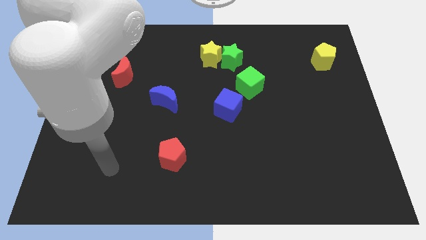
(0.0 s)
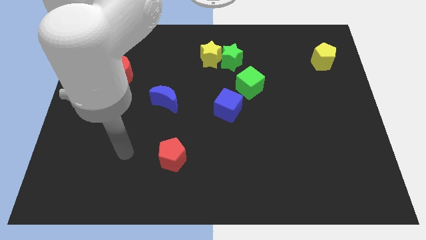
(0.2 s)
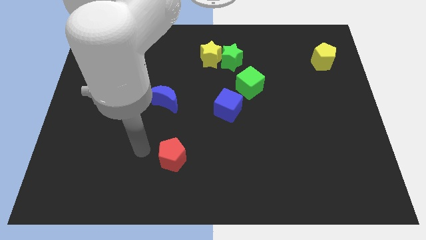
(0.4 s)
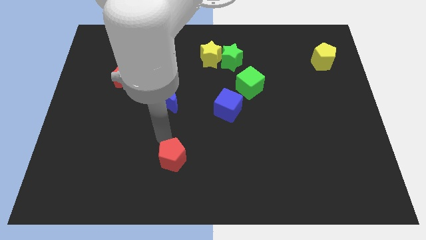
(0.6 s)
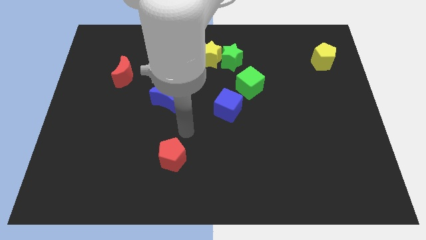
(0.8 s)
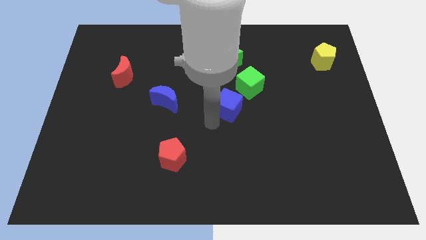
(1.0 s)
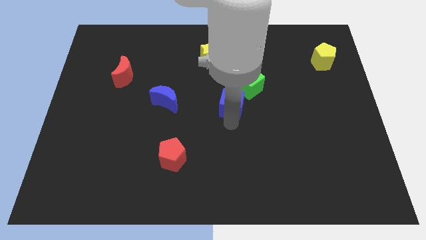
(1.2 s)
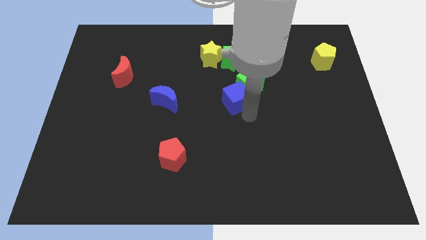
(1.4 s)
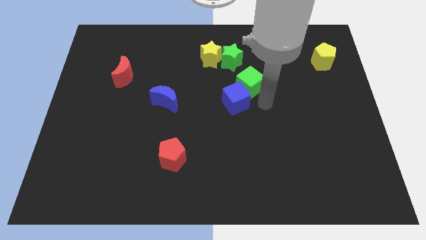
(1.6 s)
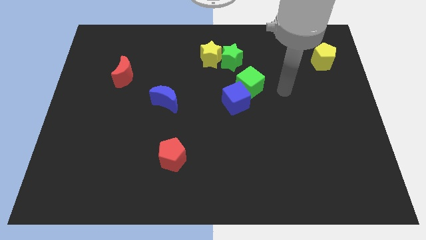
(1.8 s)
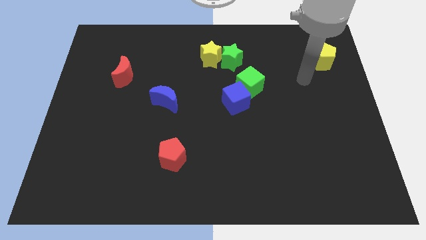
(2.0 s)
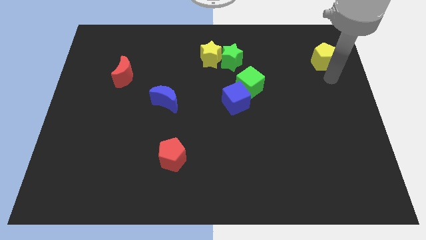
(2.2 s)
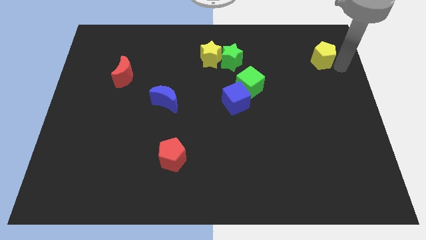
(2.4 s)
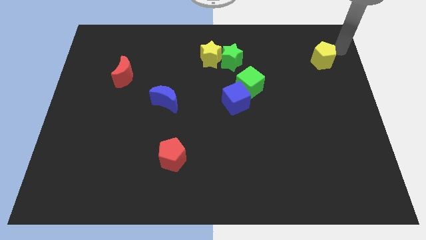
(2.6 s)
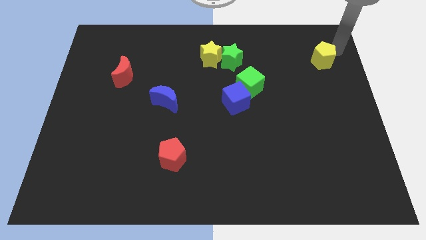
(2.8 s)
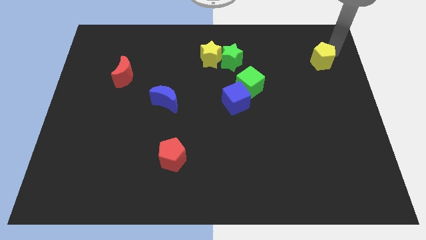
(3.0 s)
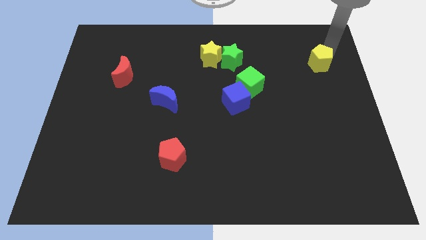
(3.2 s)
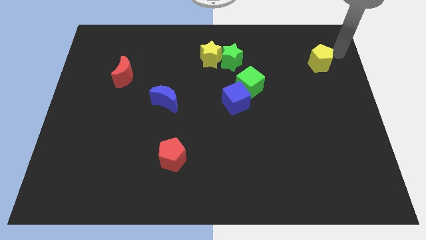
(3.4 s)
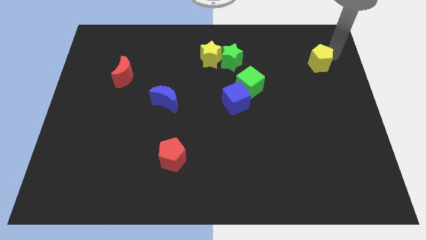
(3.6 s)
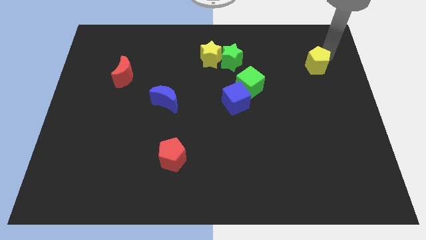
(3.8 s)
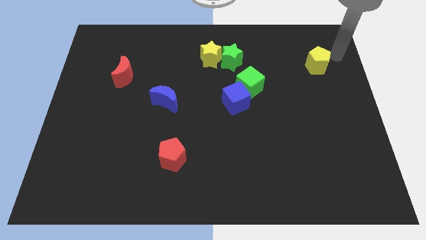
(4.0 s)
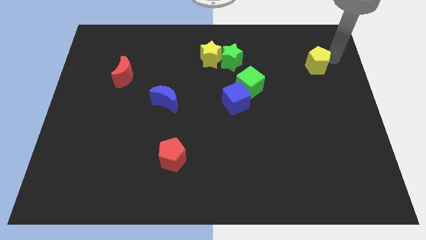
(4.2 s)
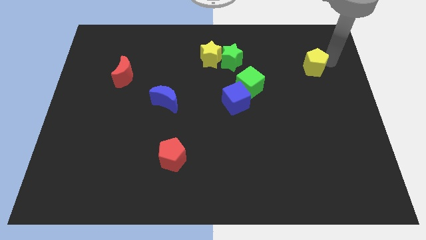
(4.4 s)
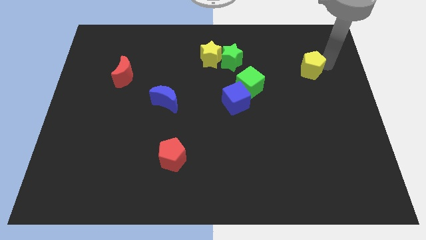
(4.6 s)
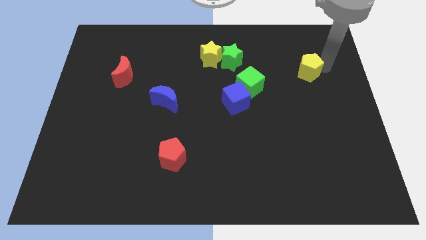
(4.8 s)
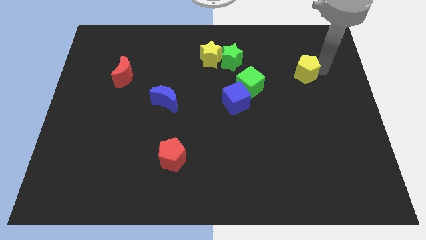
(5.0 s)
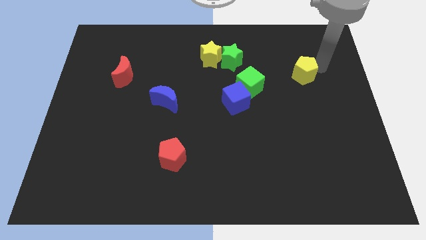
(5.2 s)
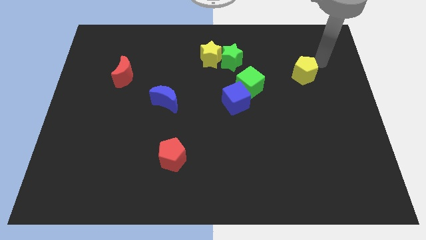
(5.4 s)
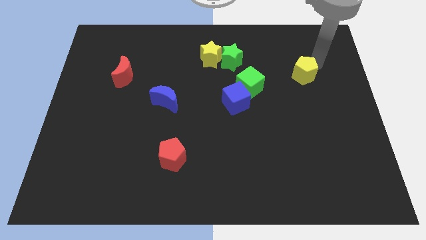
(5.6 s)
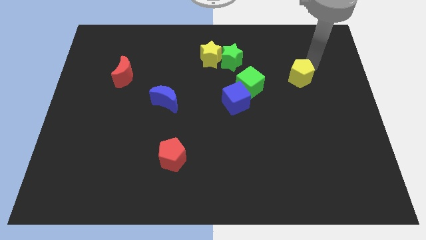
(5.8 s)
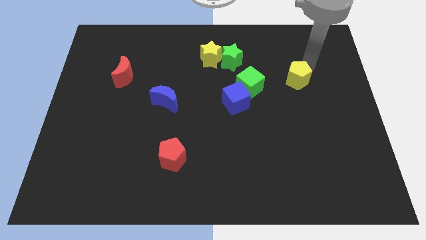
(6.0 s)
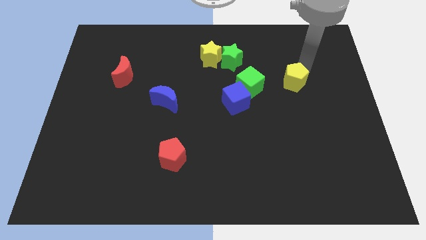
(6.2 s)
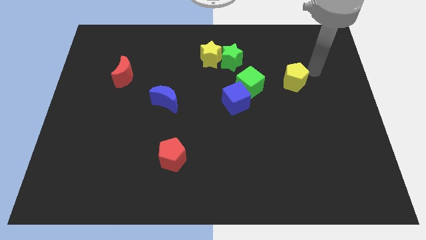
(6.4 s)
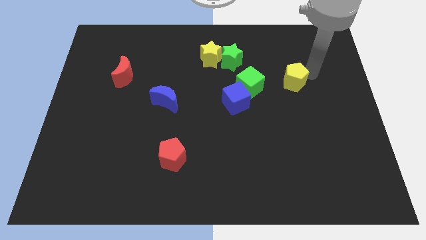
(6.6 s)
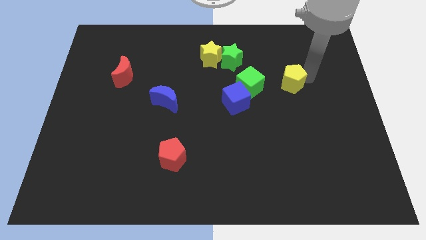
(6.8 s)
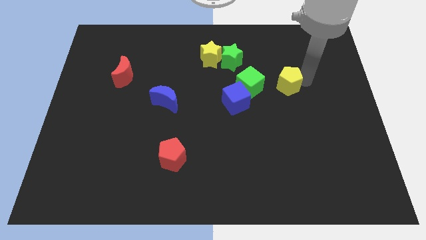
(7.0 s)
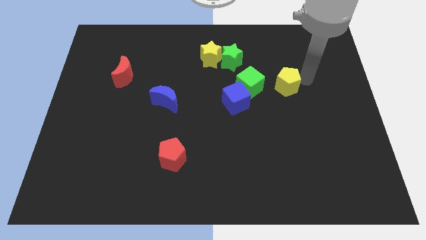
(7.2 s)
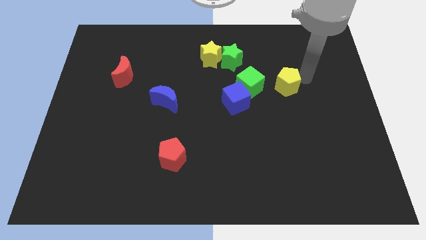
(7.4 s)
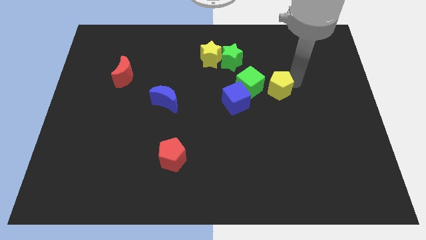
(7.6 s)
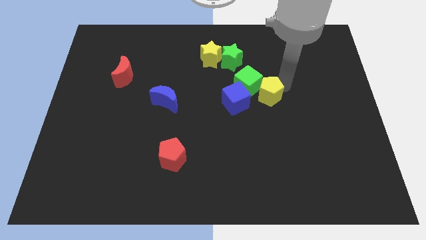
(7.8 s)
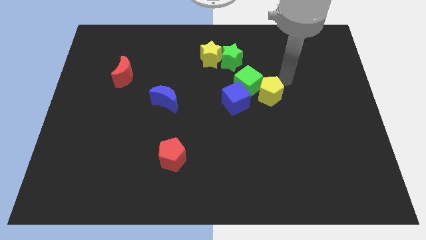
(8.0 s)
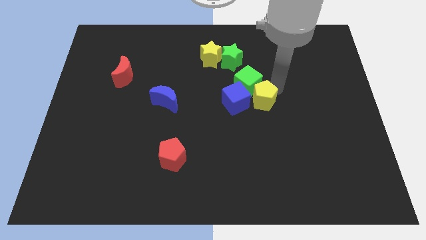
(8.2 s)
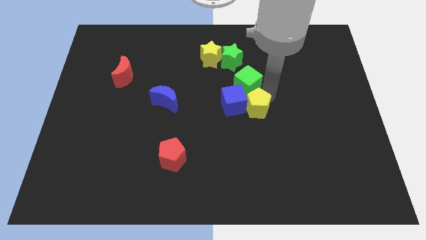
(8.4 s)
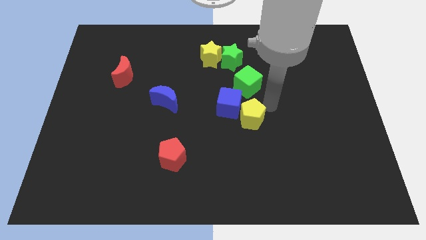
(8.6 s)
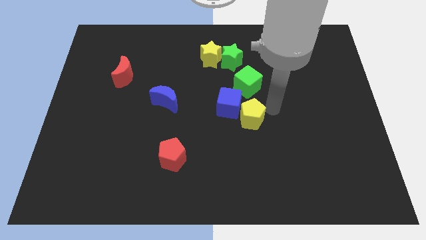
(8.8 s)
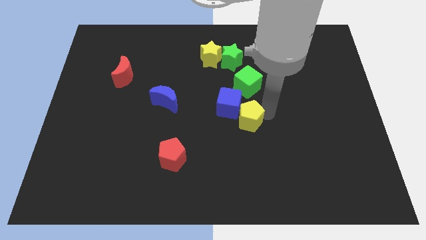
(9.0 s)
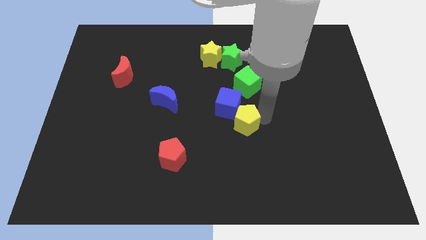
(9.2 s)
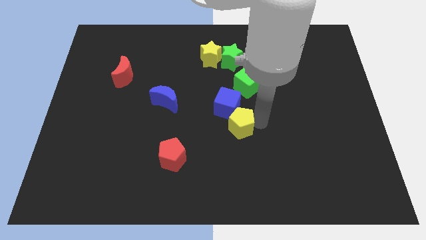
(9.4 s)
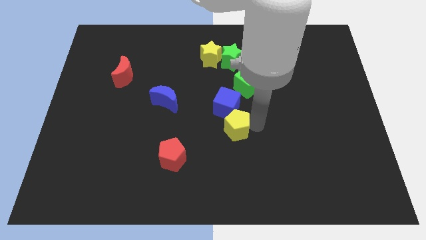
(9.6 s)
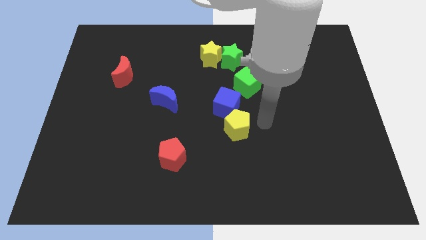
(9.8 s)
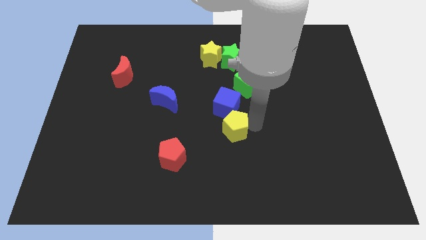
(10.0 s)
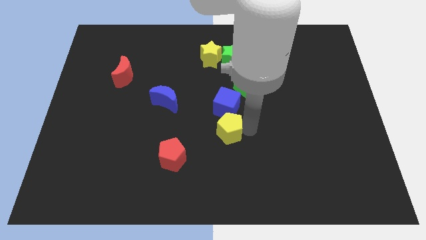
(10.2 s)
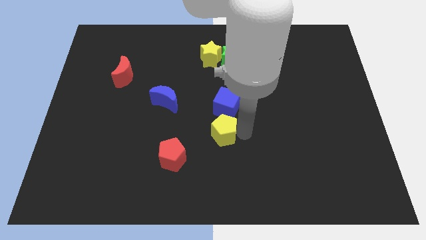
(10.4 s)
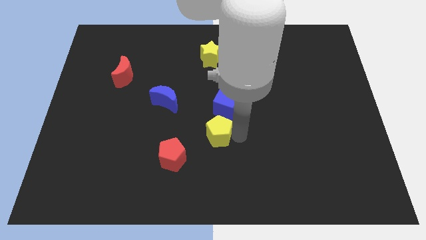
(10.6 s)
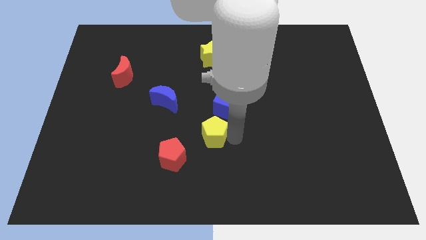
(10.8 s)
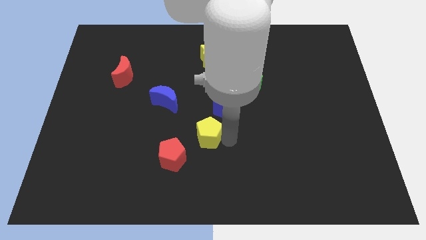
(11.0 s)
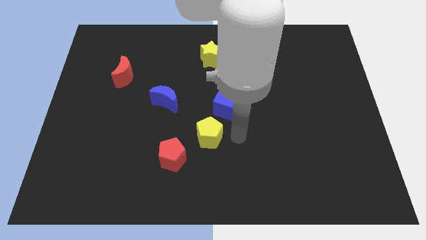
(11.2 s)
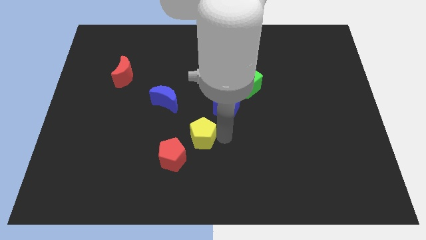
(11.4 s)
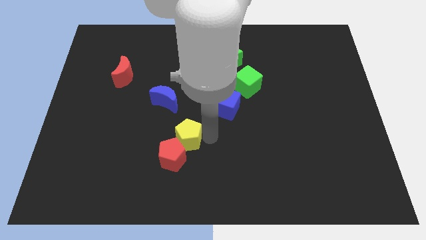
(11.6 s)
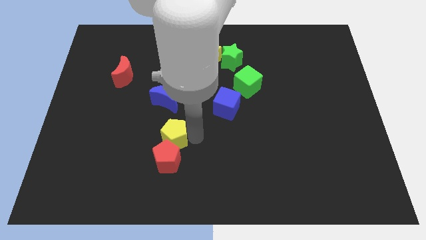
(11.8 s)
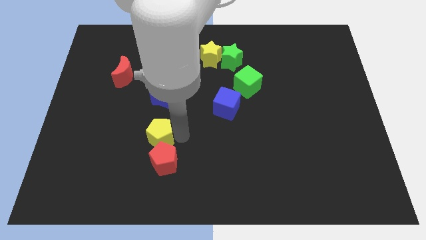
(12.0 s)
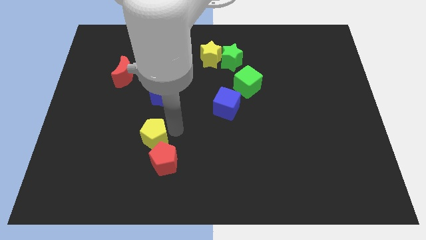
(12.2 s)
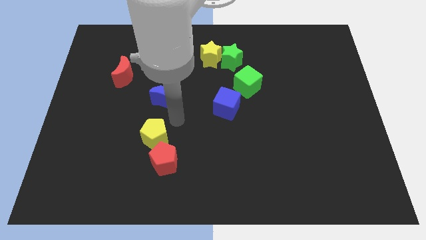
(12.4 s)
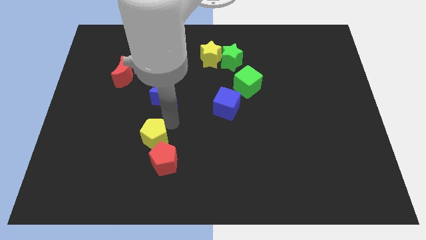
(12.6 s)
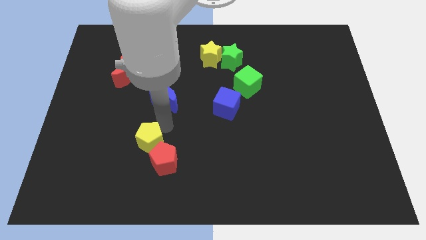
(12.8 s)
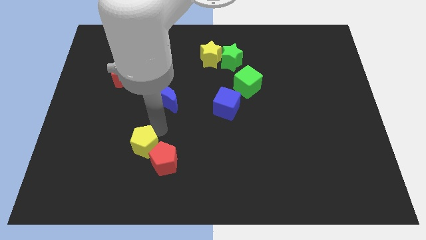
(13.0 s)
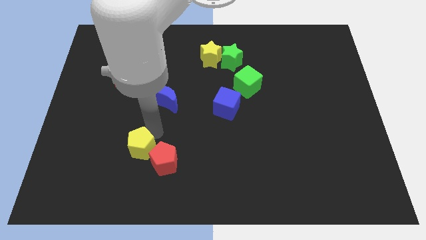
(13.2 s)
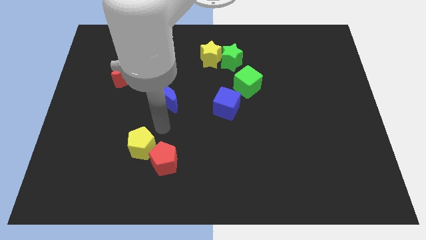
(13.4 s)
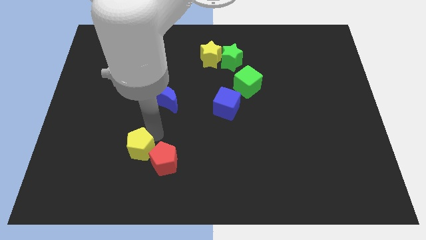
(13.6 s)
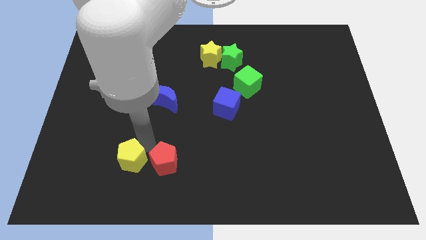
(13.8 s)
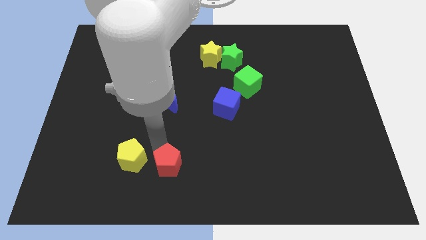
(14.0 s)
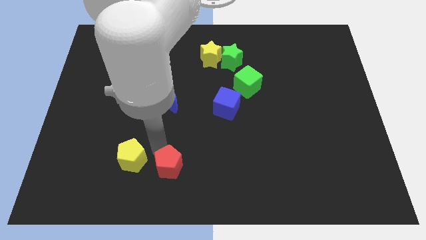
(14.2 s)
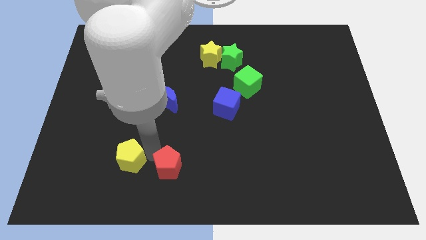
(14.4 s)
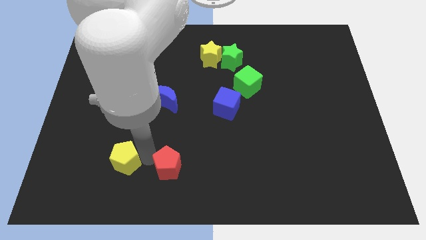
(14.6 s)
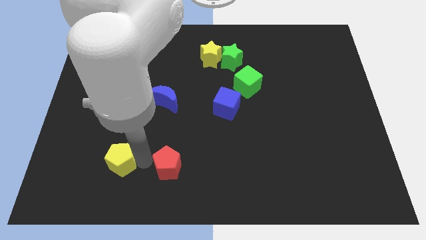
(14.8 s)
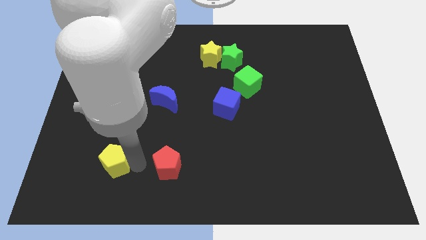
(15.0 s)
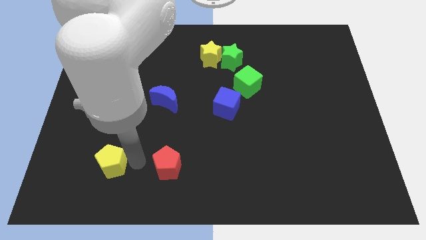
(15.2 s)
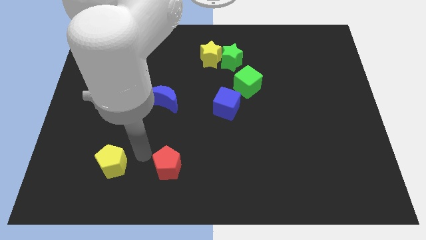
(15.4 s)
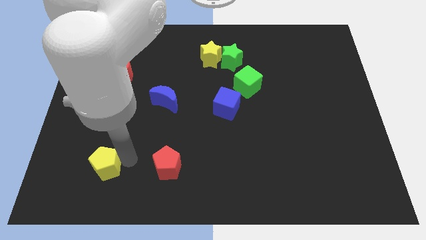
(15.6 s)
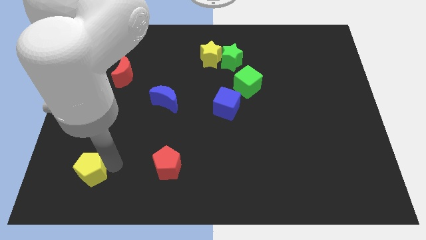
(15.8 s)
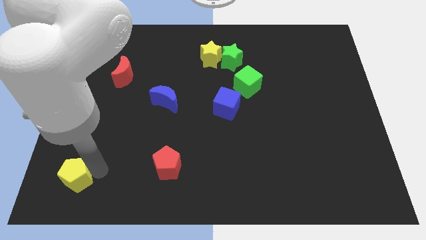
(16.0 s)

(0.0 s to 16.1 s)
move the yellow pentagon to the bottom left corner
